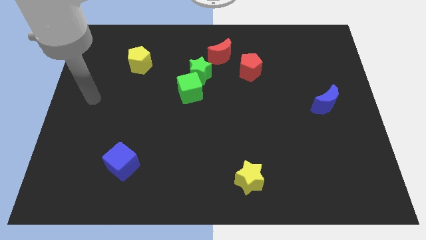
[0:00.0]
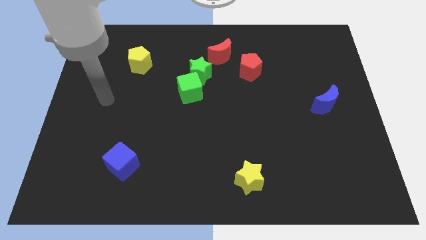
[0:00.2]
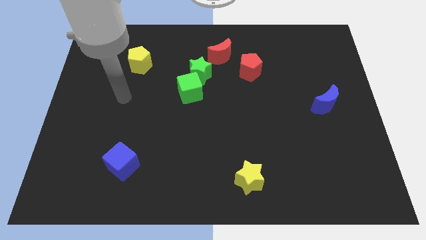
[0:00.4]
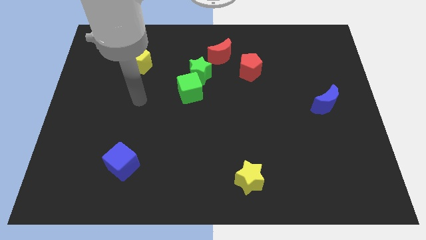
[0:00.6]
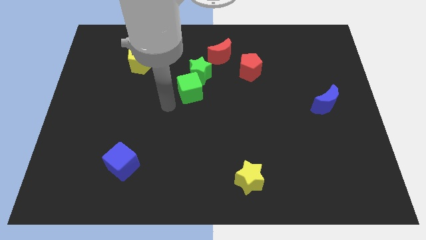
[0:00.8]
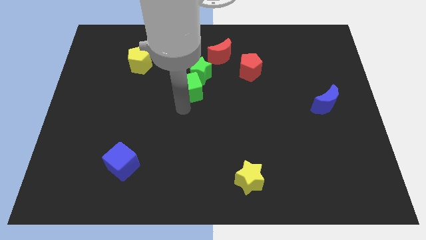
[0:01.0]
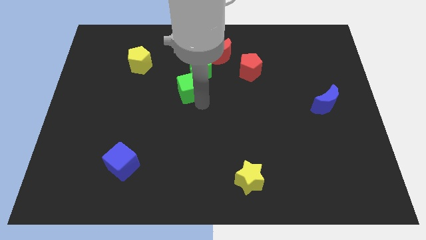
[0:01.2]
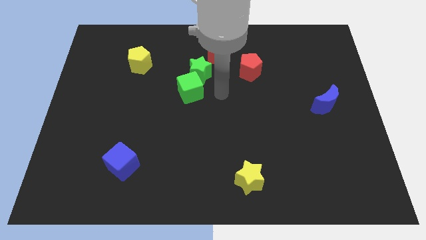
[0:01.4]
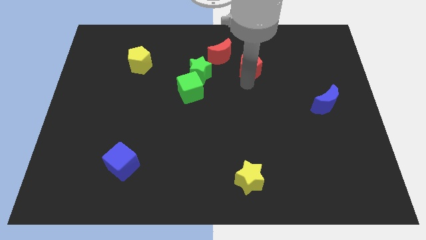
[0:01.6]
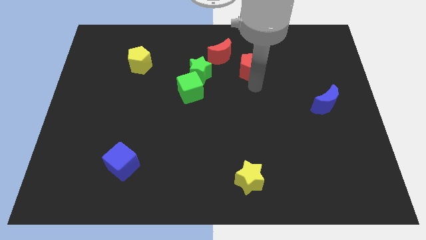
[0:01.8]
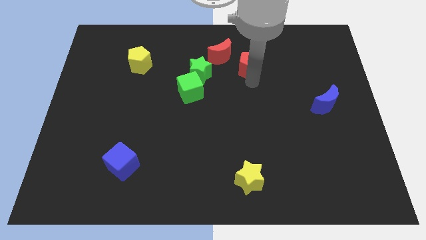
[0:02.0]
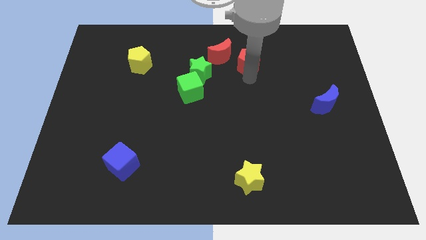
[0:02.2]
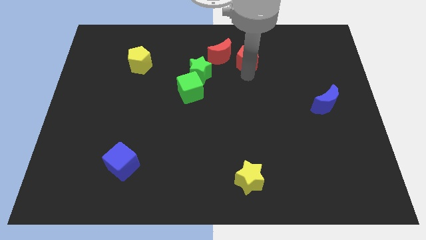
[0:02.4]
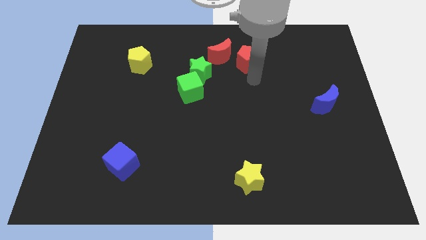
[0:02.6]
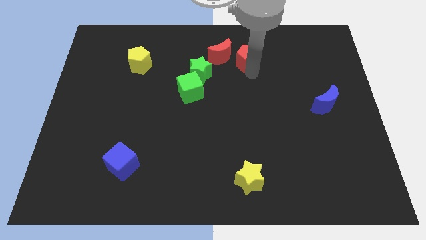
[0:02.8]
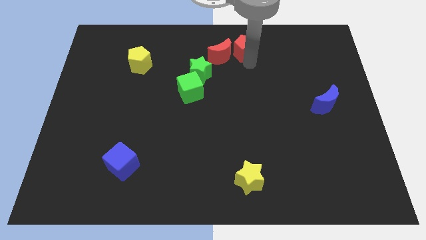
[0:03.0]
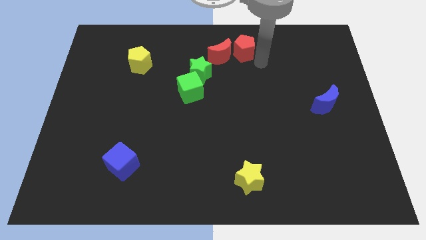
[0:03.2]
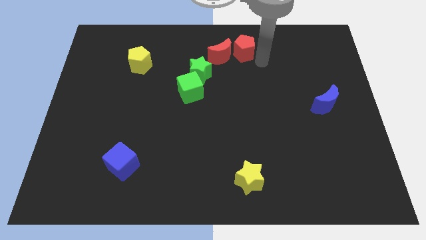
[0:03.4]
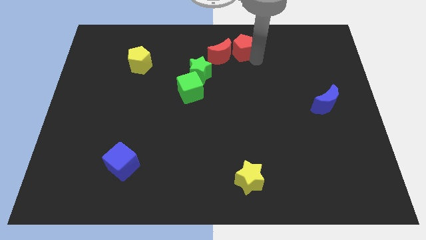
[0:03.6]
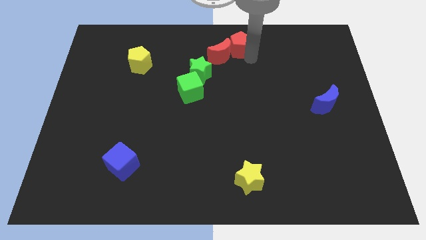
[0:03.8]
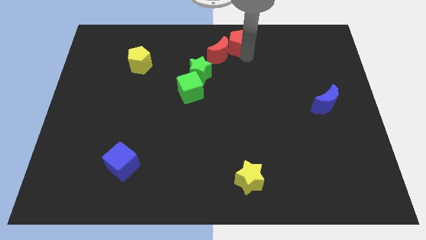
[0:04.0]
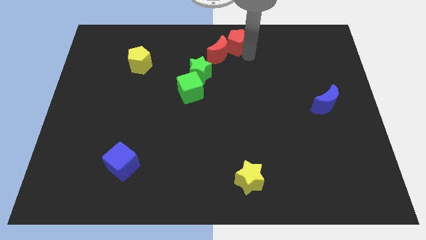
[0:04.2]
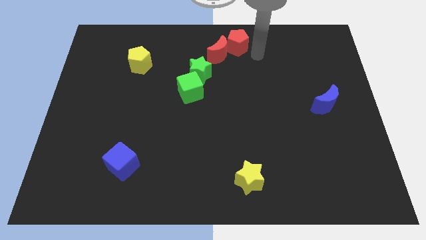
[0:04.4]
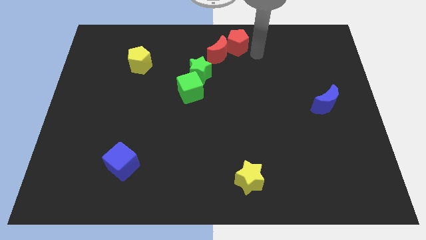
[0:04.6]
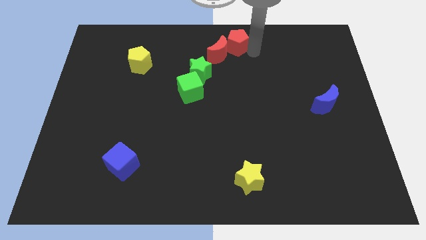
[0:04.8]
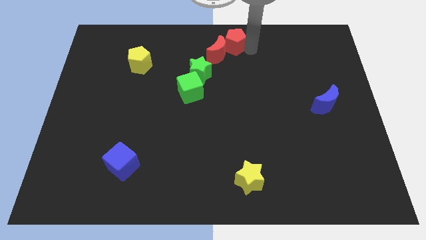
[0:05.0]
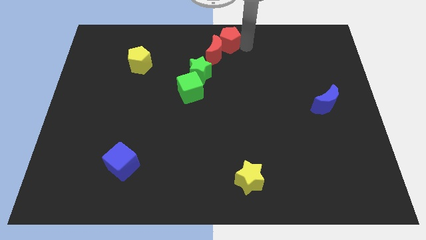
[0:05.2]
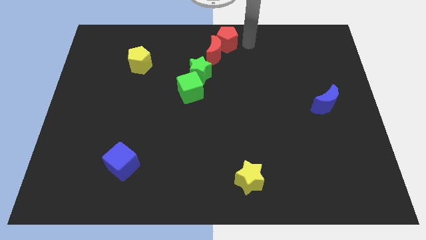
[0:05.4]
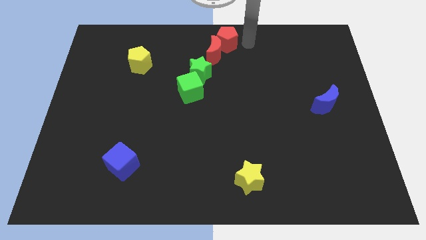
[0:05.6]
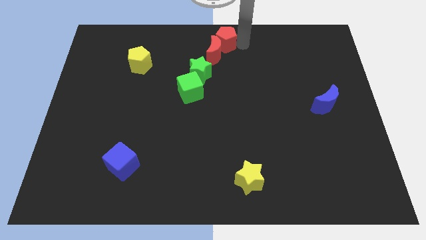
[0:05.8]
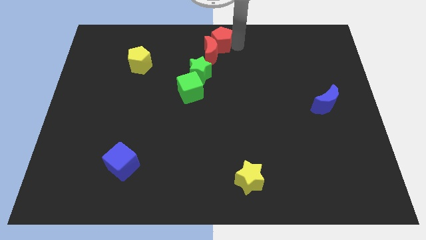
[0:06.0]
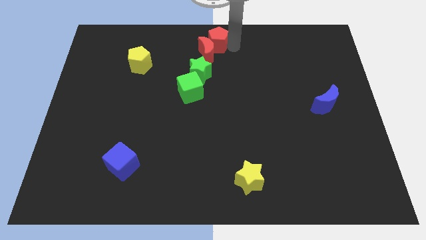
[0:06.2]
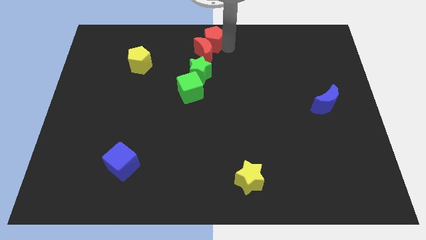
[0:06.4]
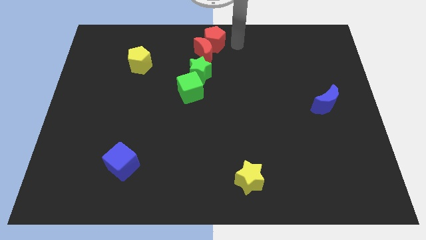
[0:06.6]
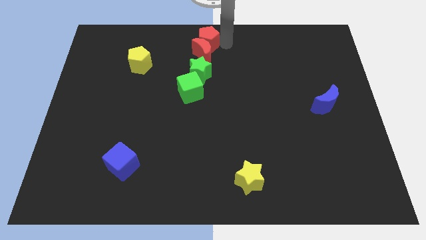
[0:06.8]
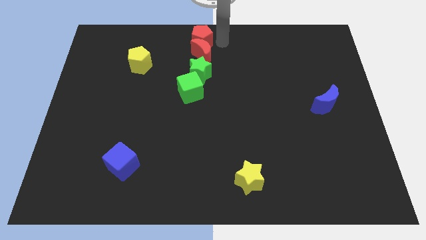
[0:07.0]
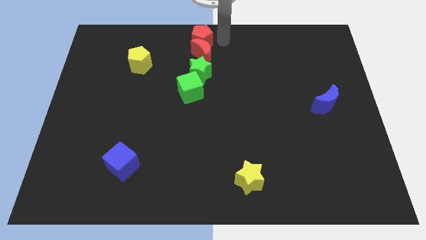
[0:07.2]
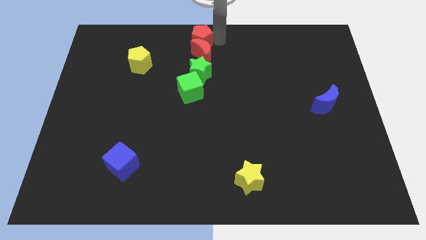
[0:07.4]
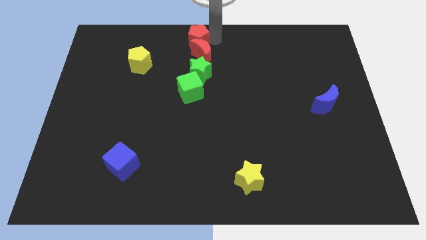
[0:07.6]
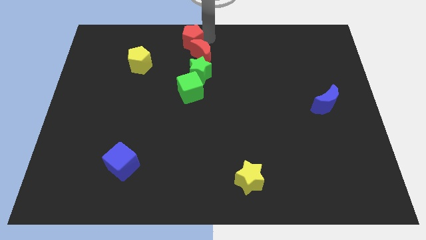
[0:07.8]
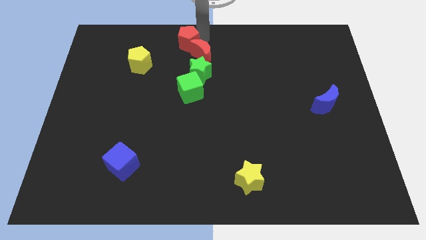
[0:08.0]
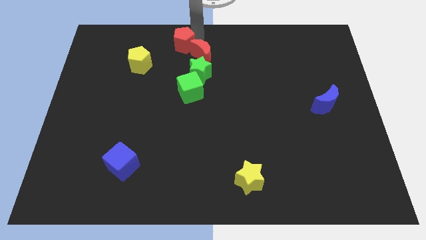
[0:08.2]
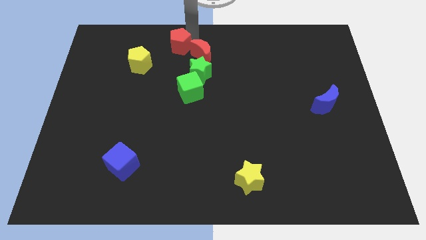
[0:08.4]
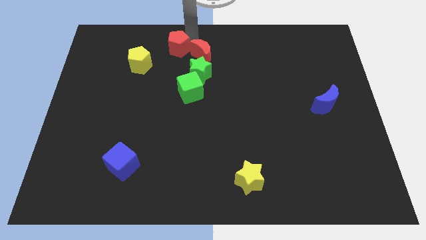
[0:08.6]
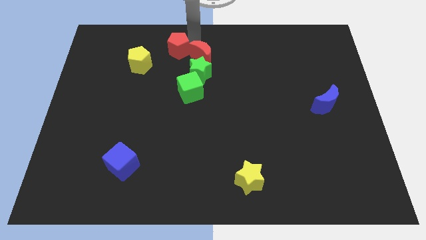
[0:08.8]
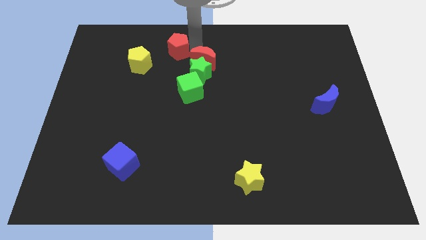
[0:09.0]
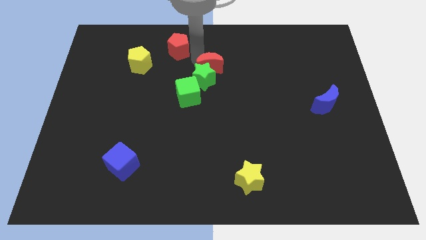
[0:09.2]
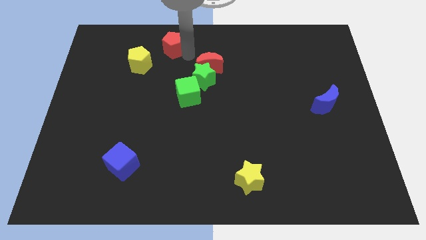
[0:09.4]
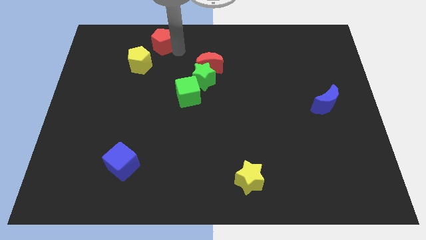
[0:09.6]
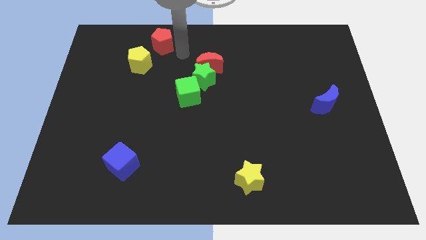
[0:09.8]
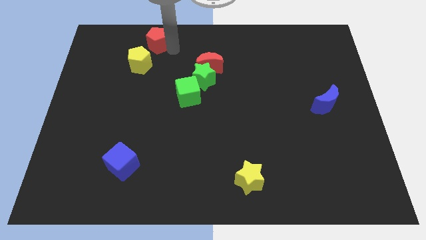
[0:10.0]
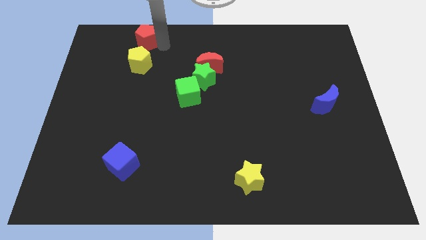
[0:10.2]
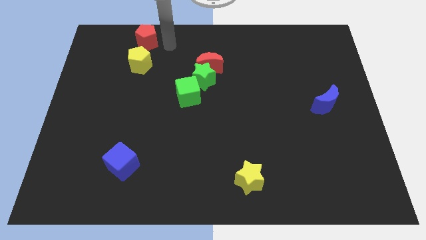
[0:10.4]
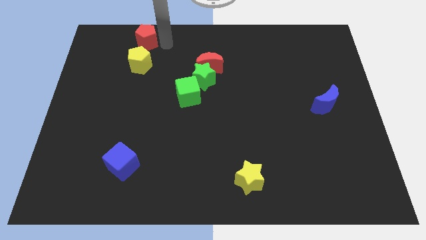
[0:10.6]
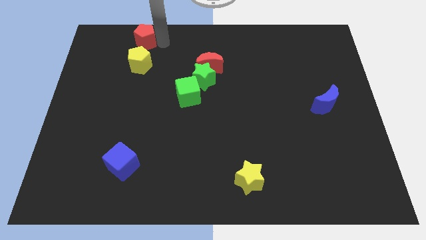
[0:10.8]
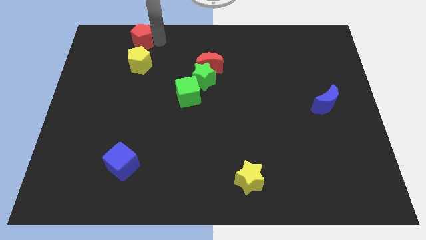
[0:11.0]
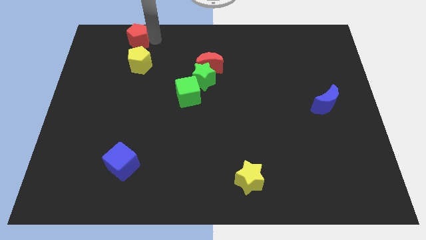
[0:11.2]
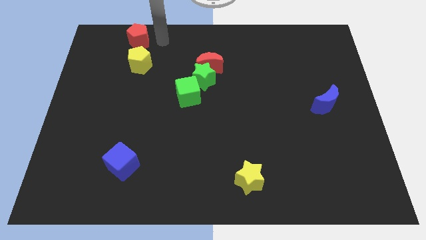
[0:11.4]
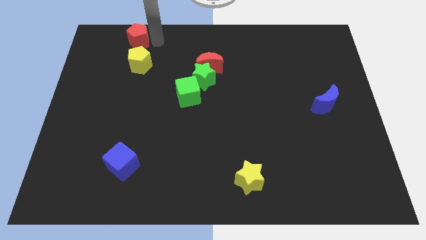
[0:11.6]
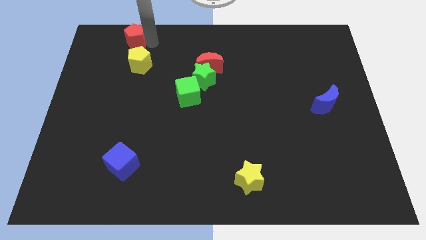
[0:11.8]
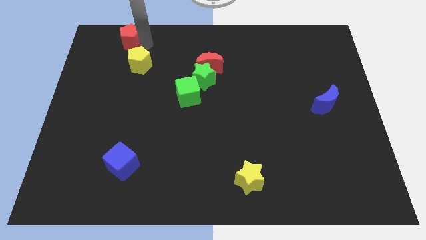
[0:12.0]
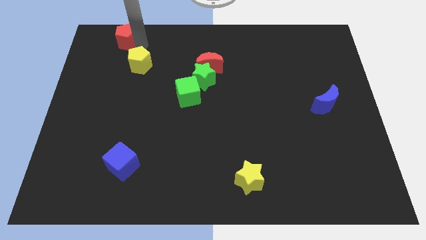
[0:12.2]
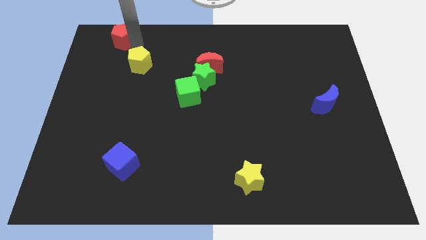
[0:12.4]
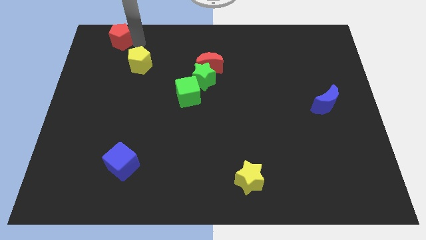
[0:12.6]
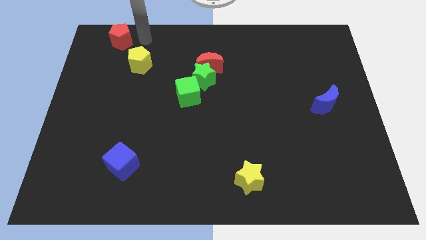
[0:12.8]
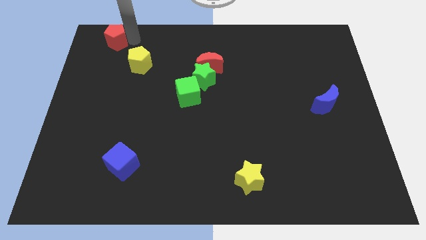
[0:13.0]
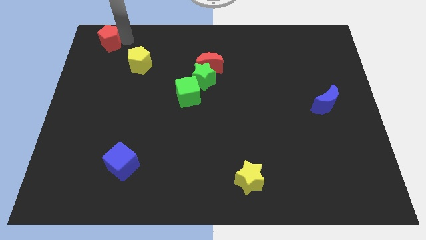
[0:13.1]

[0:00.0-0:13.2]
push the red pentagon to the top left corner
